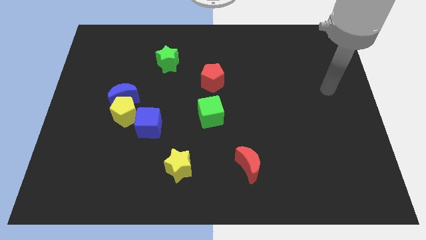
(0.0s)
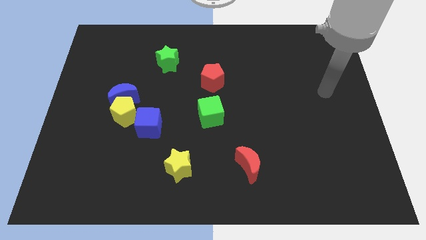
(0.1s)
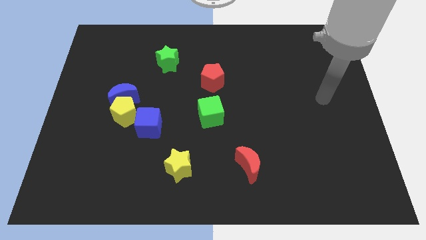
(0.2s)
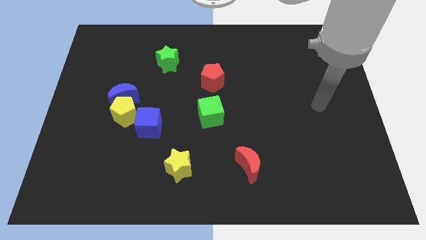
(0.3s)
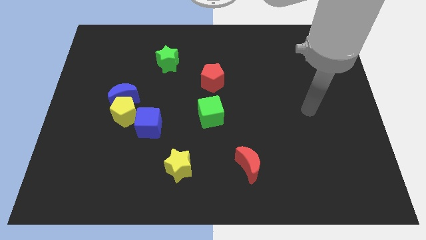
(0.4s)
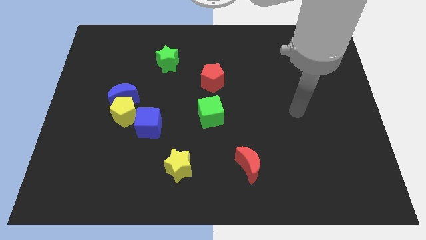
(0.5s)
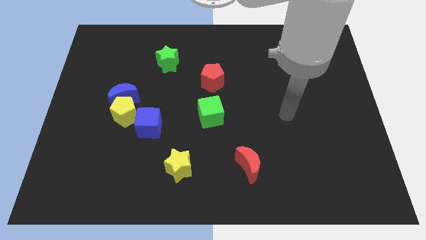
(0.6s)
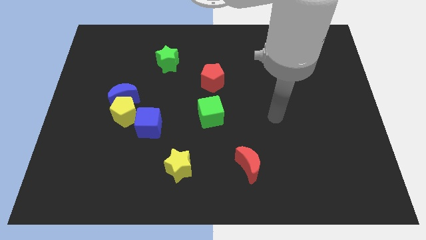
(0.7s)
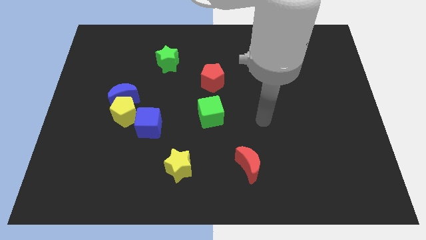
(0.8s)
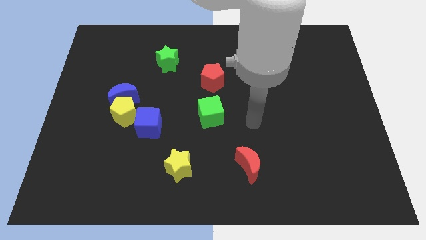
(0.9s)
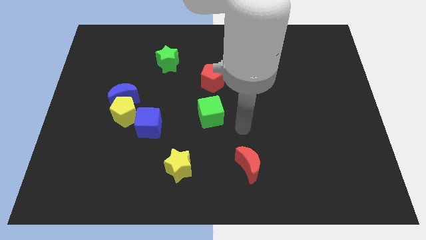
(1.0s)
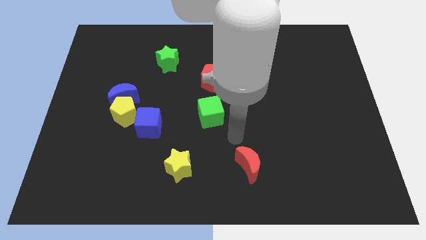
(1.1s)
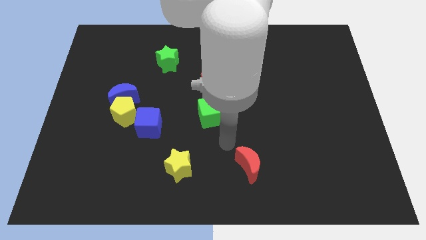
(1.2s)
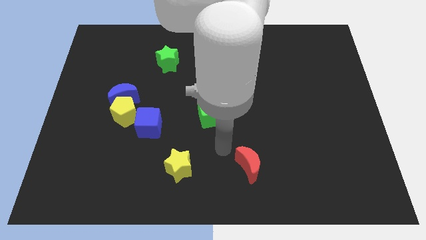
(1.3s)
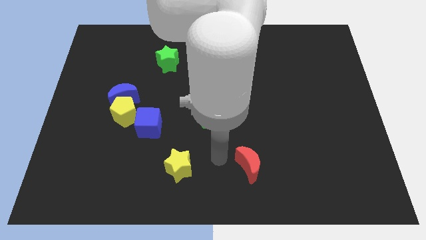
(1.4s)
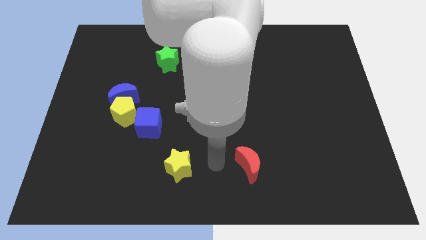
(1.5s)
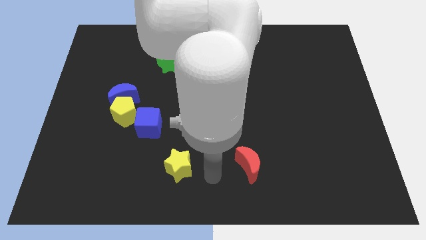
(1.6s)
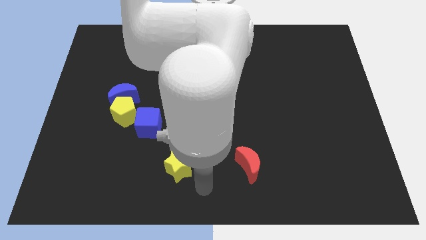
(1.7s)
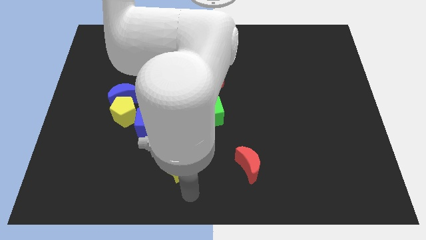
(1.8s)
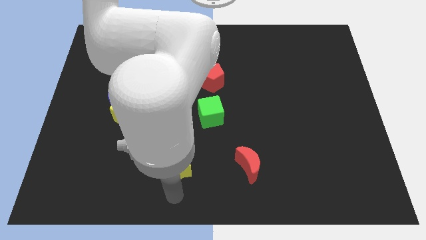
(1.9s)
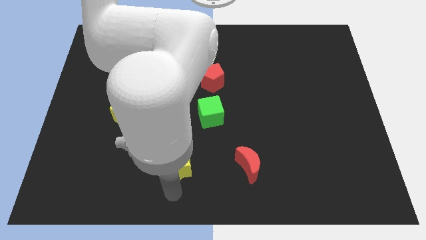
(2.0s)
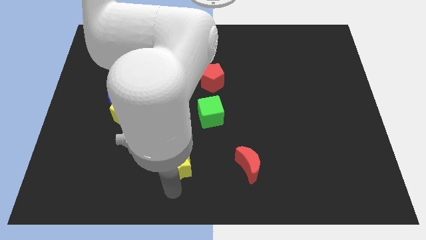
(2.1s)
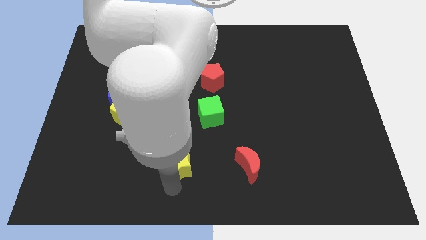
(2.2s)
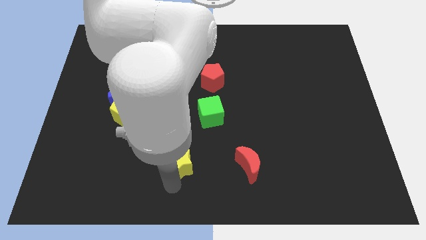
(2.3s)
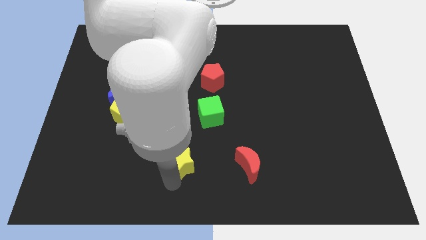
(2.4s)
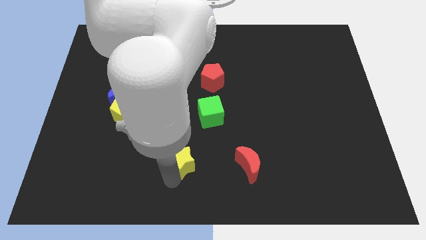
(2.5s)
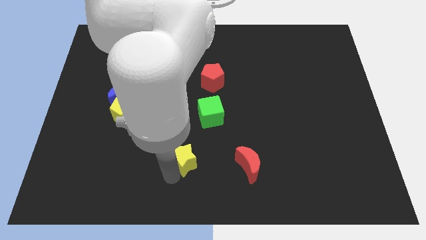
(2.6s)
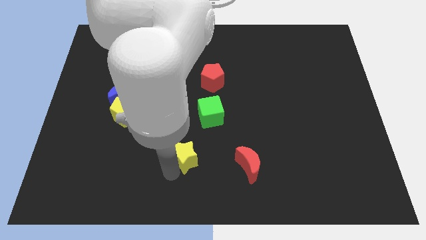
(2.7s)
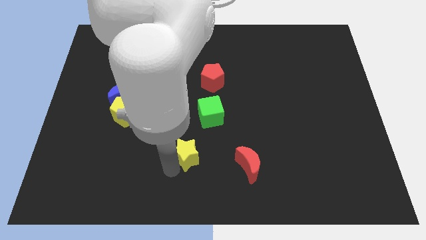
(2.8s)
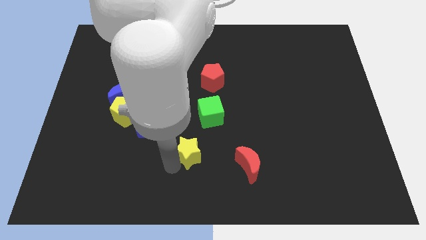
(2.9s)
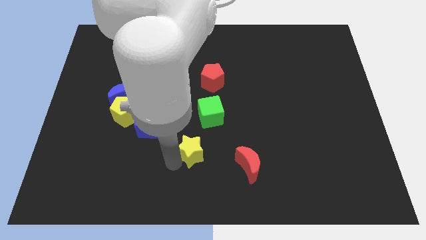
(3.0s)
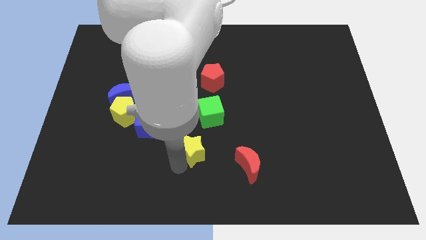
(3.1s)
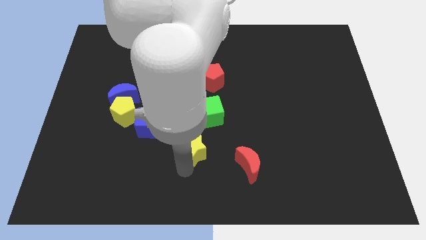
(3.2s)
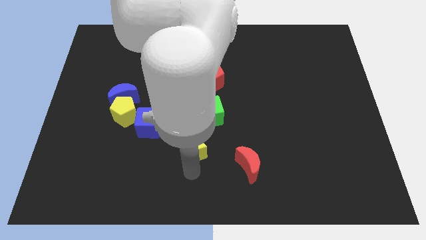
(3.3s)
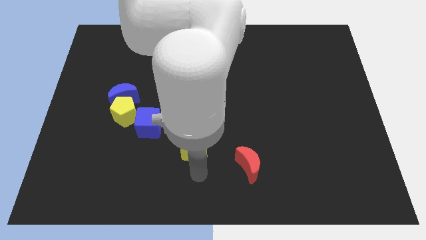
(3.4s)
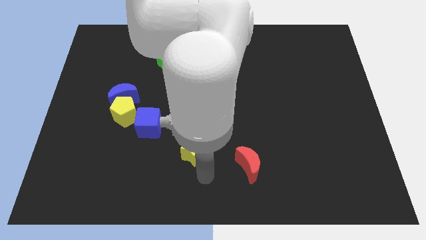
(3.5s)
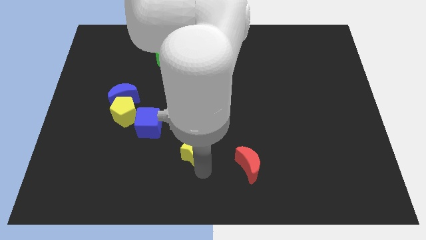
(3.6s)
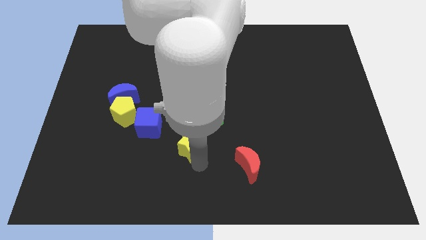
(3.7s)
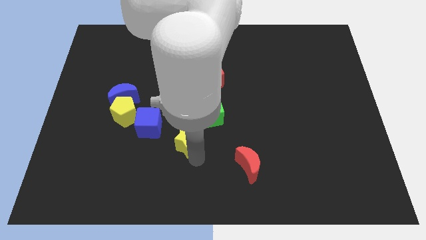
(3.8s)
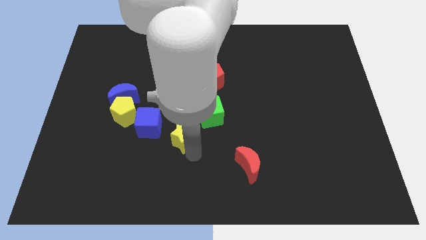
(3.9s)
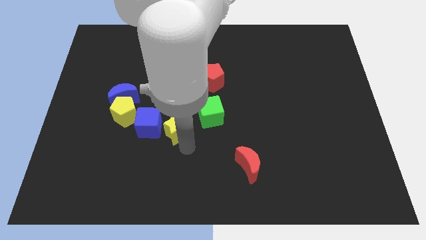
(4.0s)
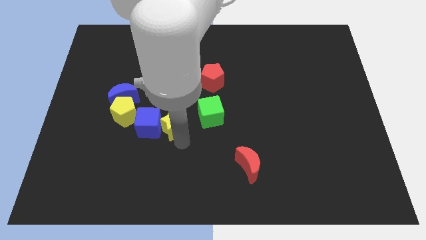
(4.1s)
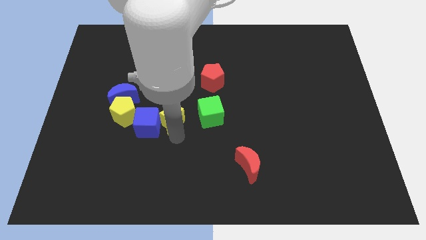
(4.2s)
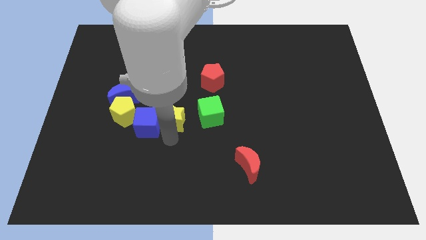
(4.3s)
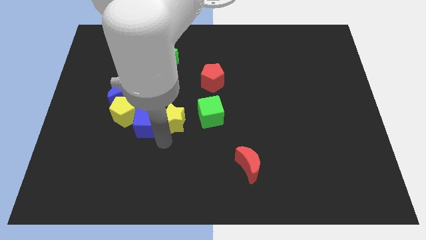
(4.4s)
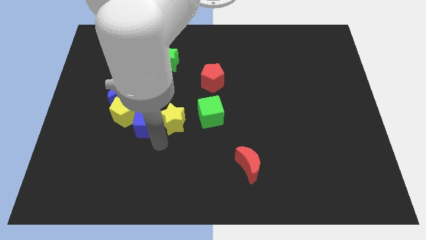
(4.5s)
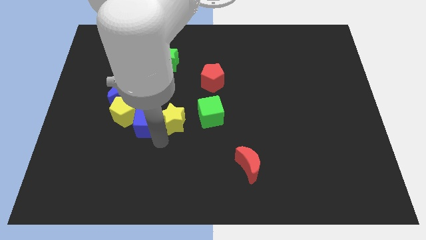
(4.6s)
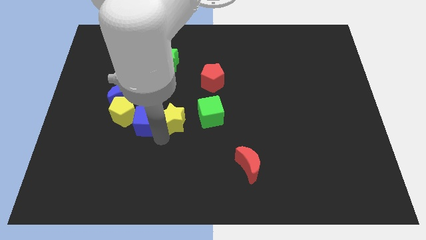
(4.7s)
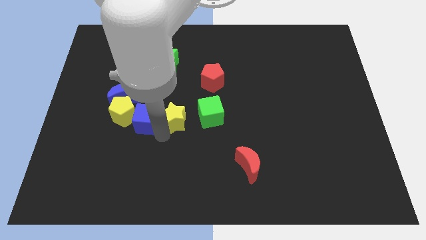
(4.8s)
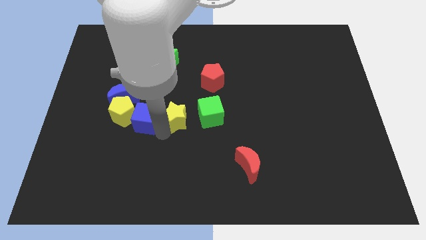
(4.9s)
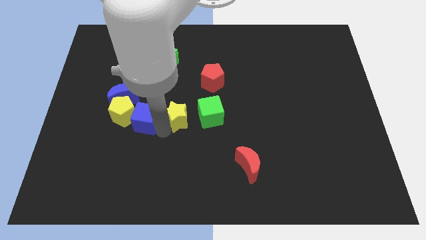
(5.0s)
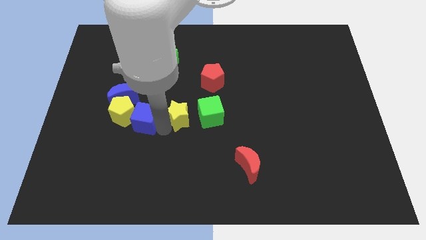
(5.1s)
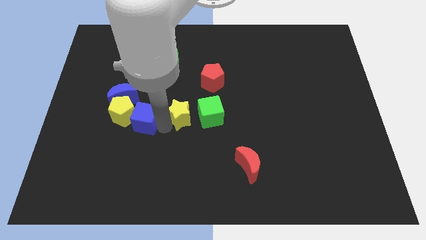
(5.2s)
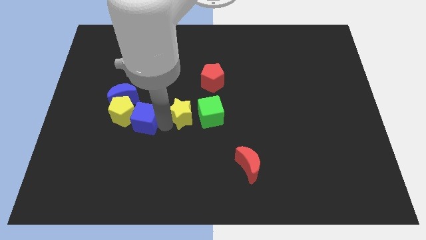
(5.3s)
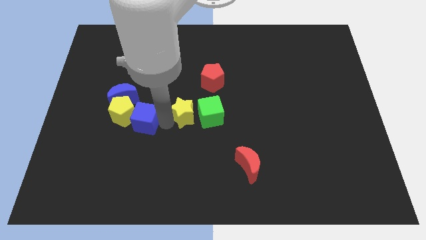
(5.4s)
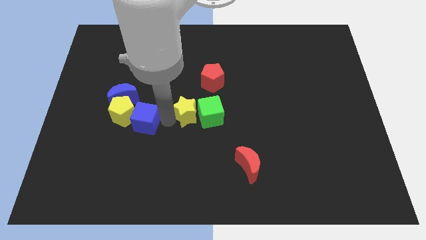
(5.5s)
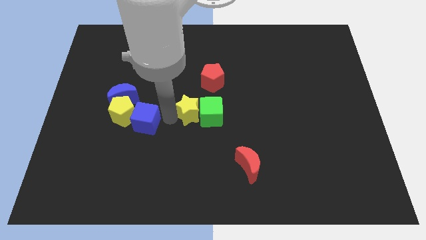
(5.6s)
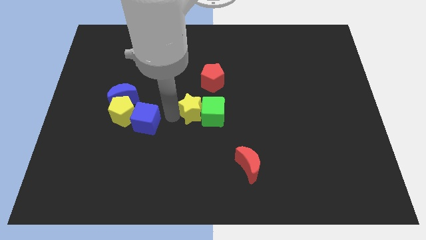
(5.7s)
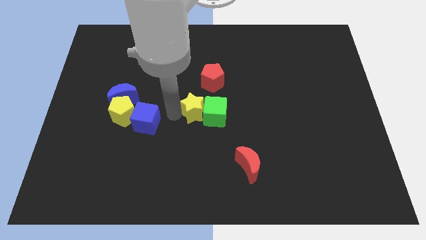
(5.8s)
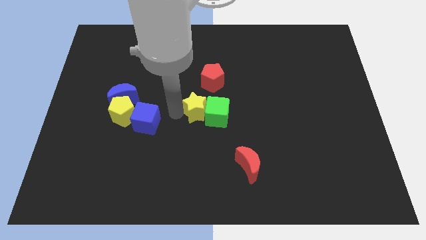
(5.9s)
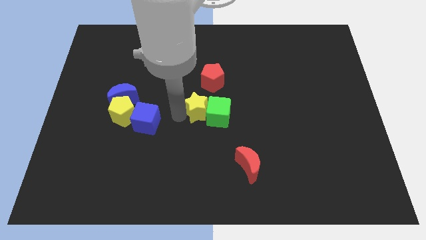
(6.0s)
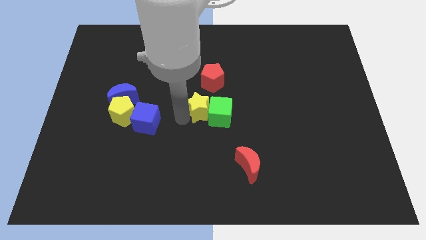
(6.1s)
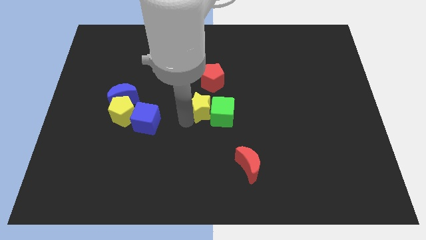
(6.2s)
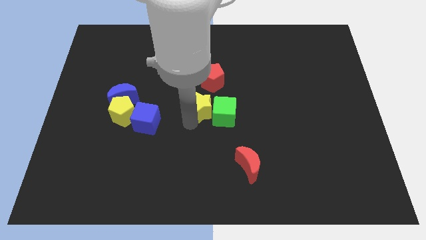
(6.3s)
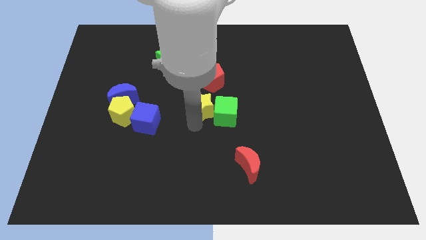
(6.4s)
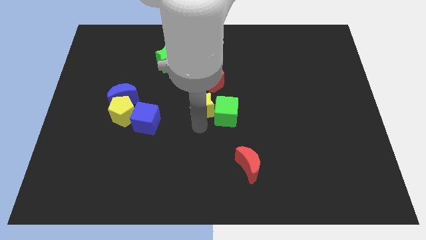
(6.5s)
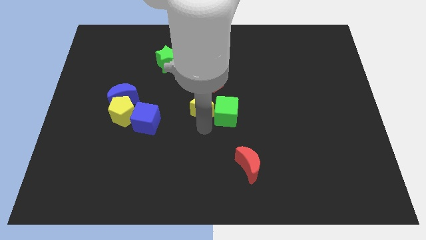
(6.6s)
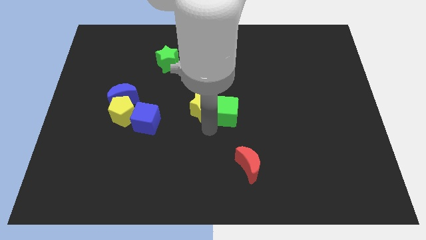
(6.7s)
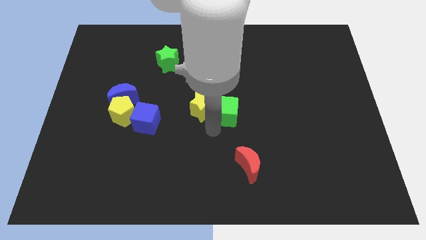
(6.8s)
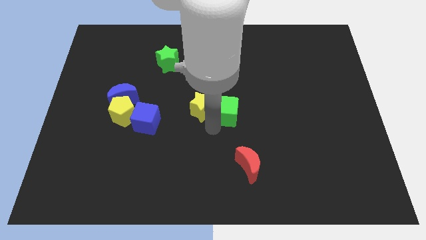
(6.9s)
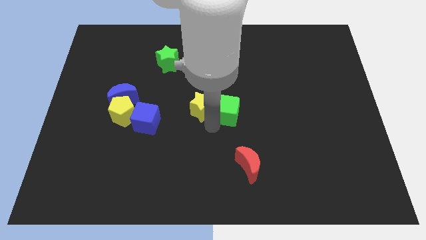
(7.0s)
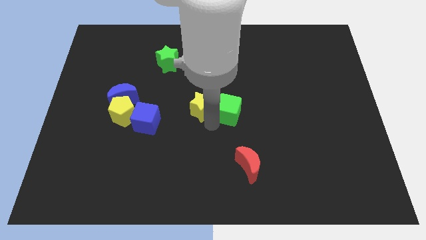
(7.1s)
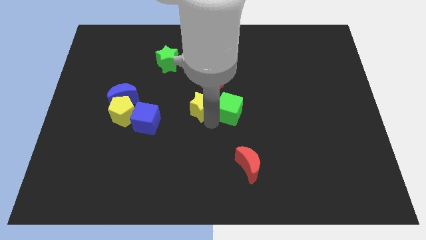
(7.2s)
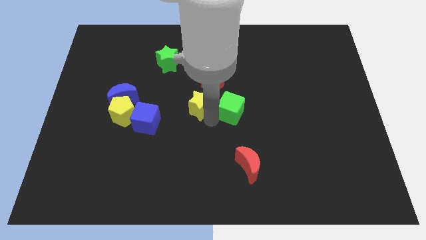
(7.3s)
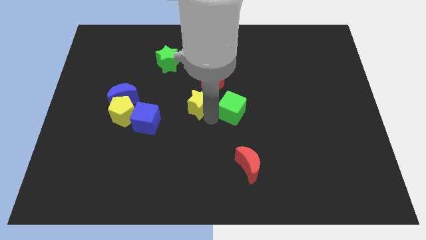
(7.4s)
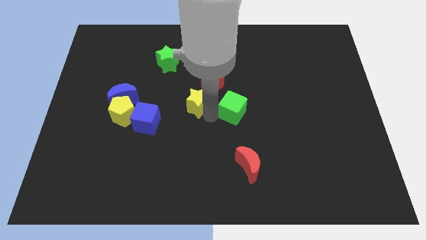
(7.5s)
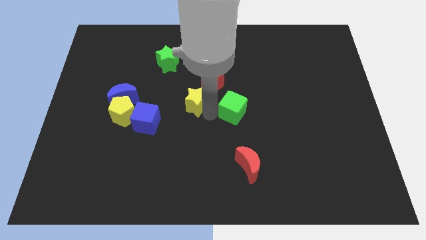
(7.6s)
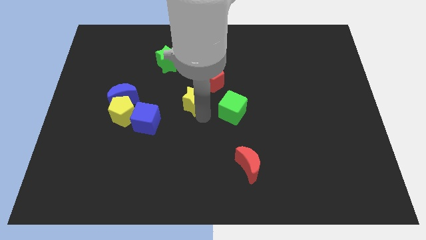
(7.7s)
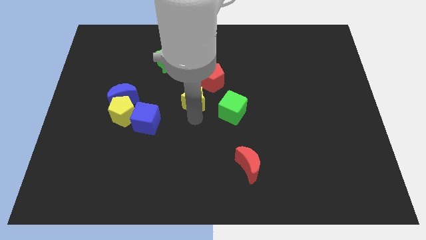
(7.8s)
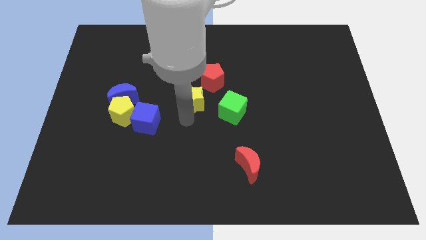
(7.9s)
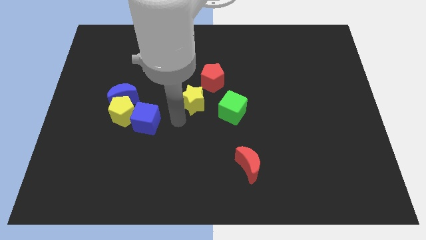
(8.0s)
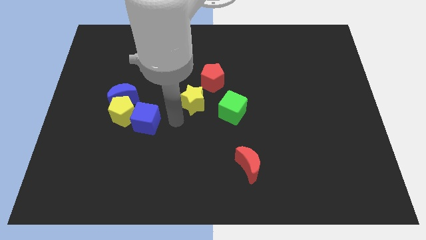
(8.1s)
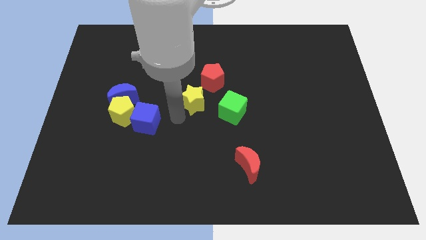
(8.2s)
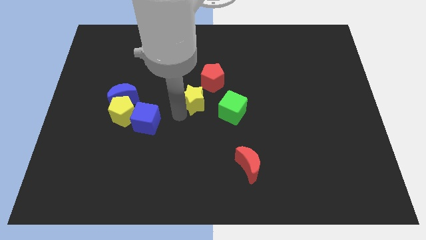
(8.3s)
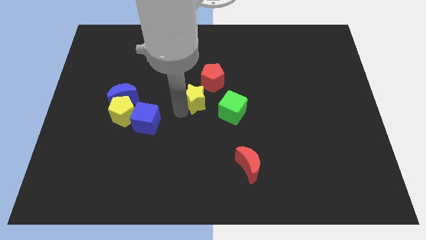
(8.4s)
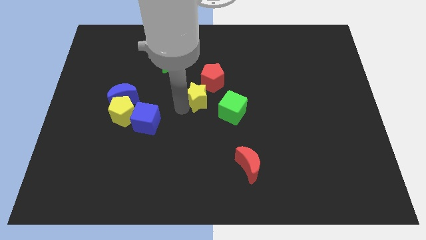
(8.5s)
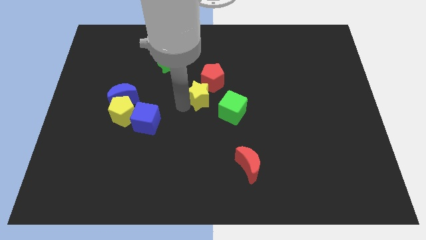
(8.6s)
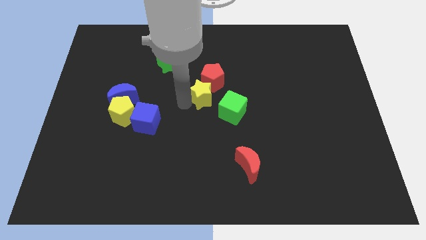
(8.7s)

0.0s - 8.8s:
put the yellow star towards the red pentagon
